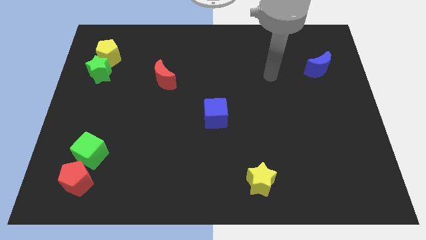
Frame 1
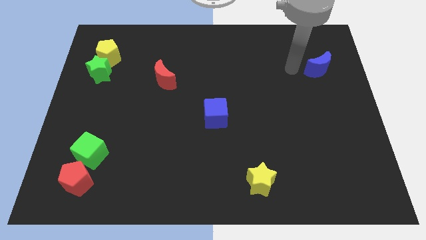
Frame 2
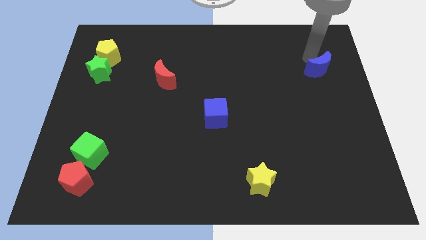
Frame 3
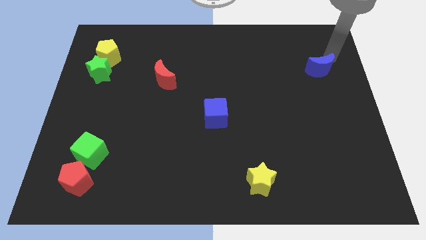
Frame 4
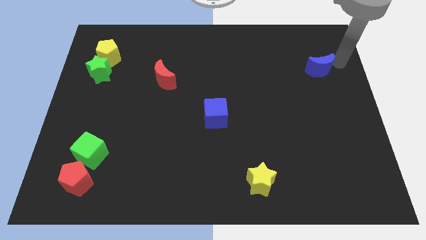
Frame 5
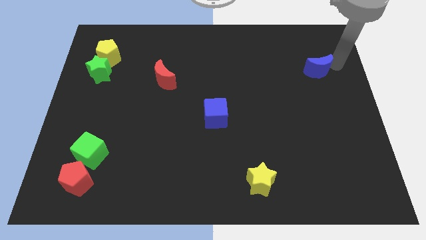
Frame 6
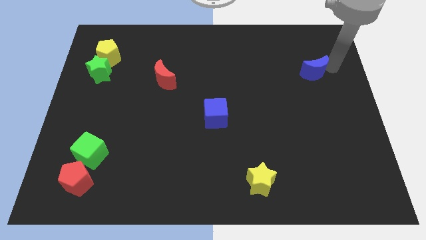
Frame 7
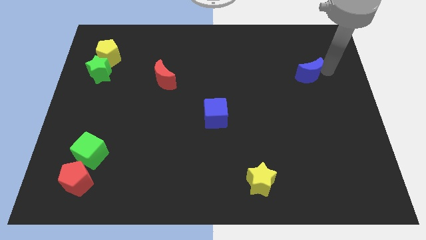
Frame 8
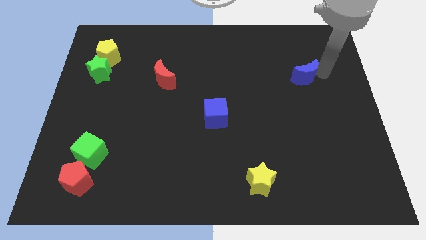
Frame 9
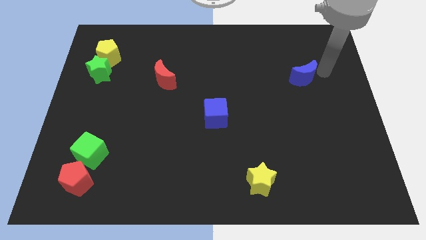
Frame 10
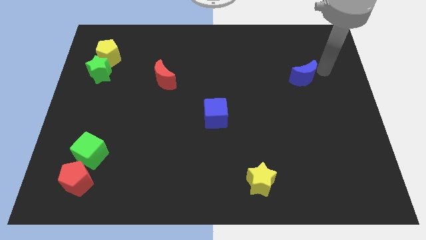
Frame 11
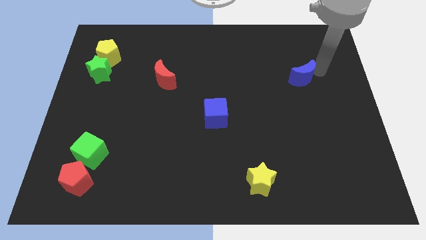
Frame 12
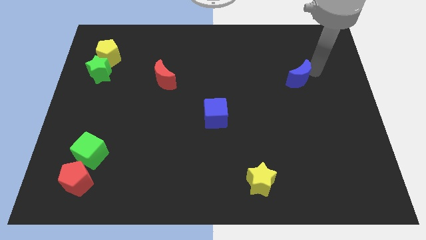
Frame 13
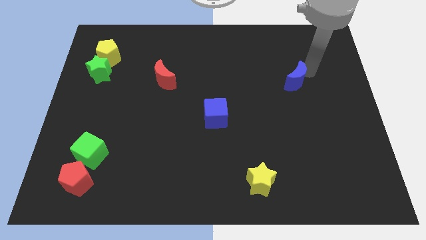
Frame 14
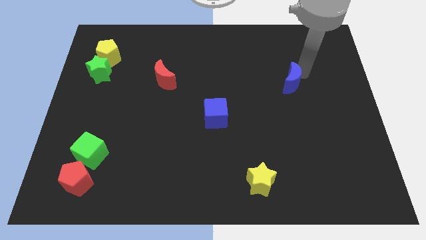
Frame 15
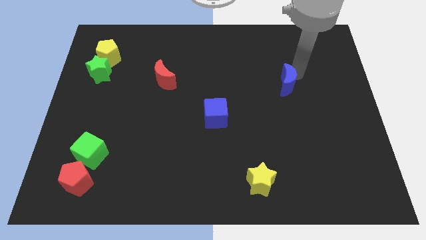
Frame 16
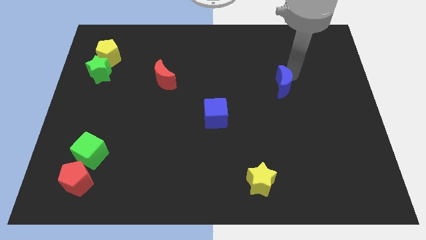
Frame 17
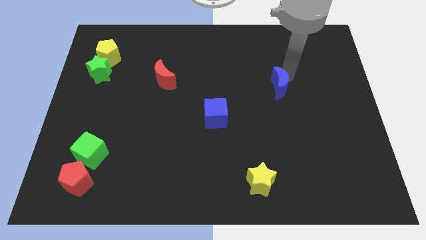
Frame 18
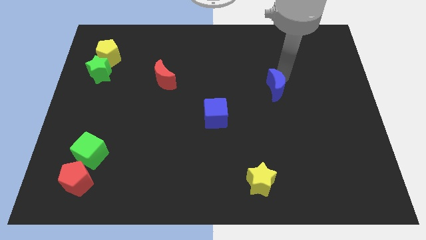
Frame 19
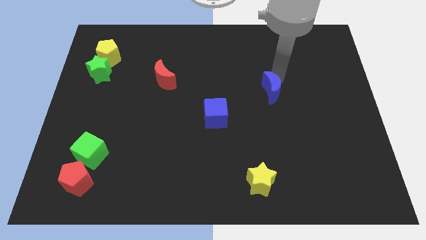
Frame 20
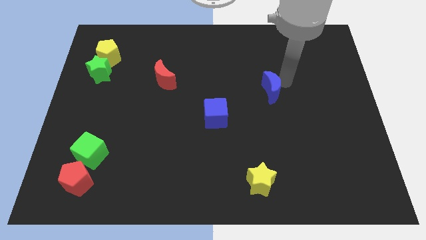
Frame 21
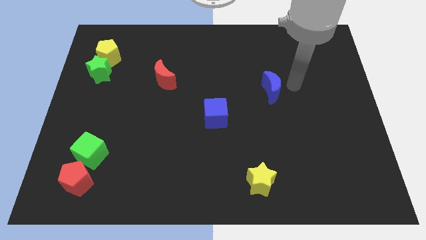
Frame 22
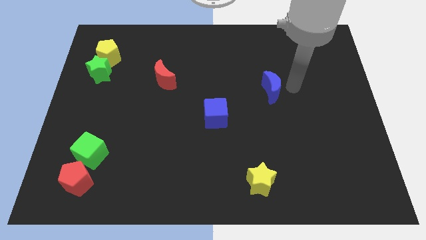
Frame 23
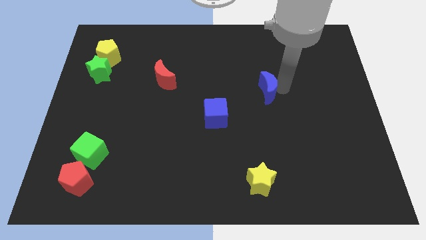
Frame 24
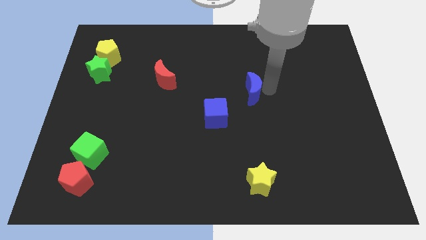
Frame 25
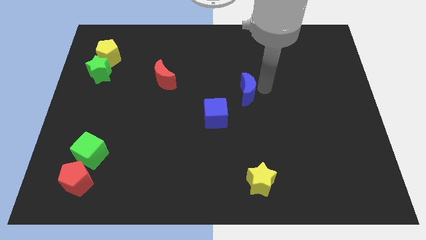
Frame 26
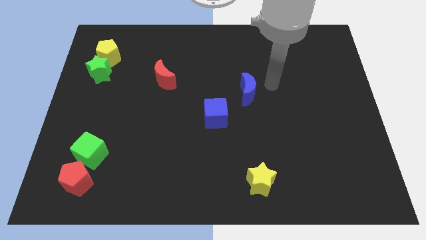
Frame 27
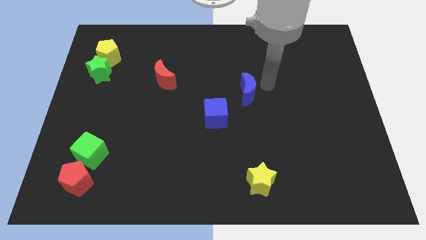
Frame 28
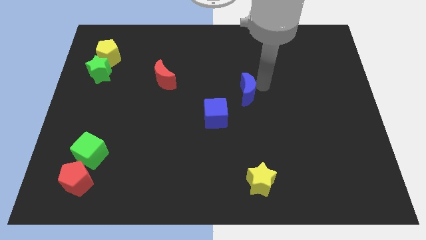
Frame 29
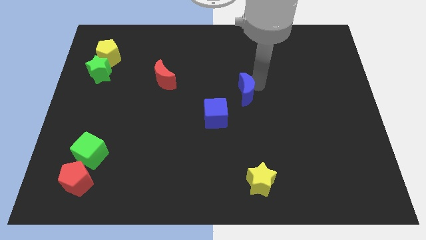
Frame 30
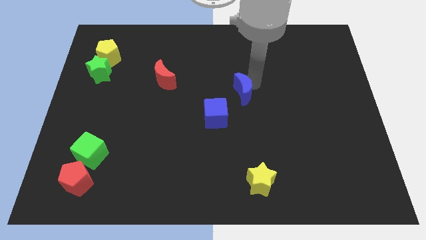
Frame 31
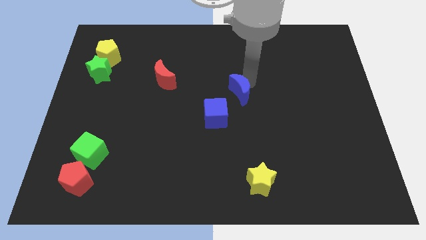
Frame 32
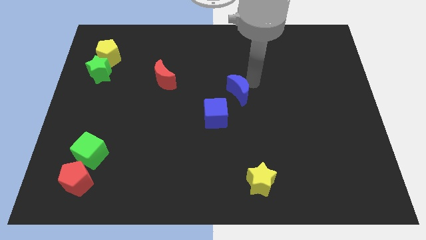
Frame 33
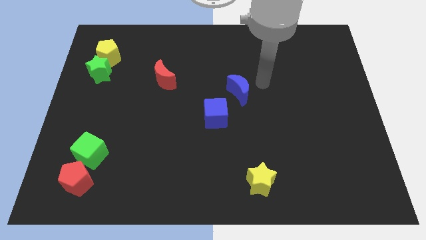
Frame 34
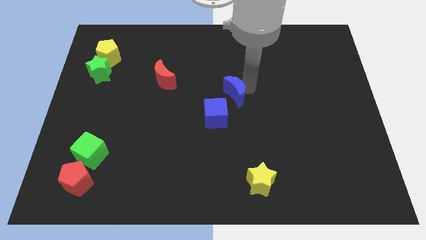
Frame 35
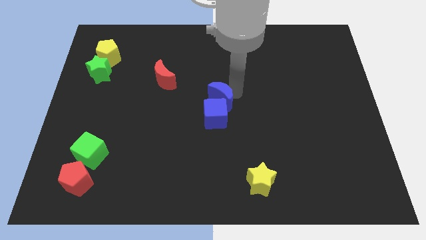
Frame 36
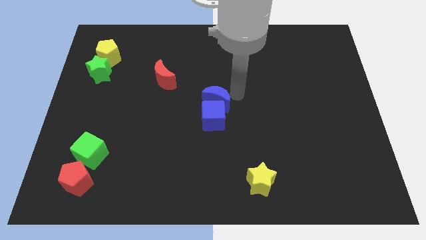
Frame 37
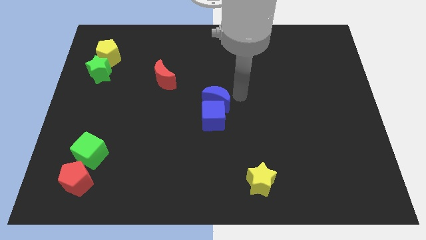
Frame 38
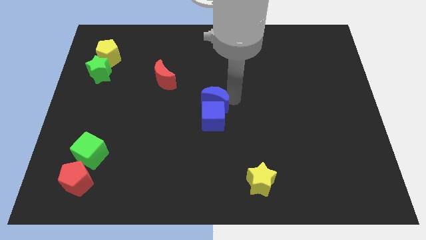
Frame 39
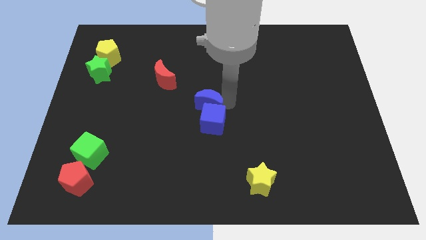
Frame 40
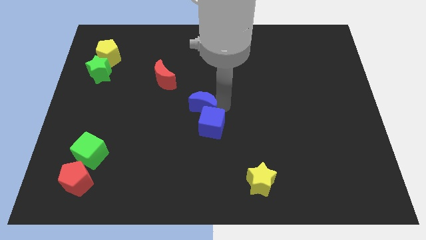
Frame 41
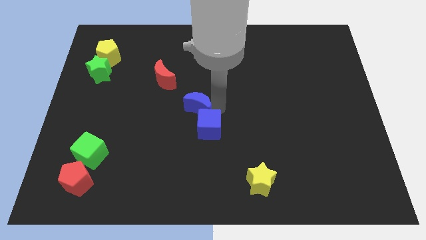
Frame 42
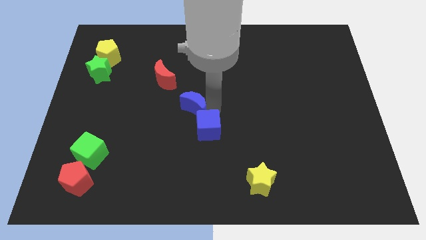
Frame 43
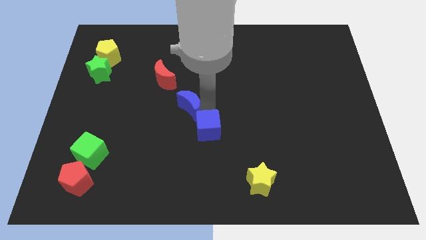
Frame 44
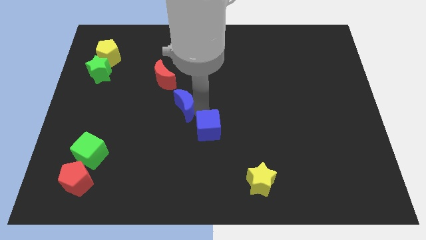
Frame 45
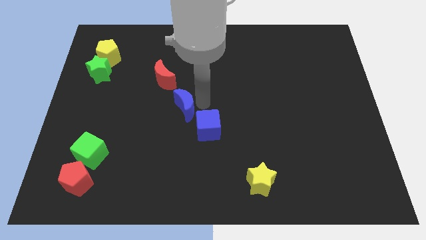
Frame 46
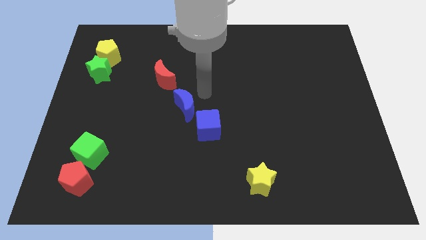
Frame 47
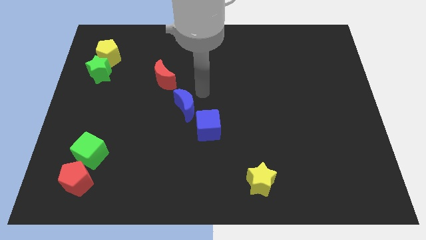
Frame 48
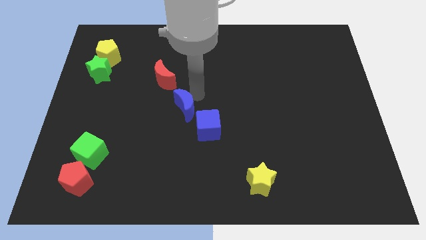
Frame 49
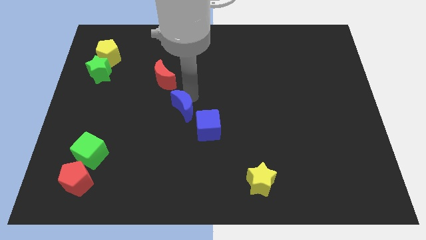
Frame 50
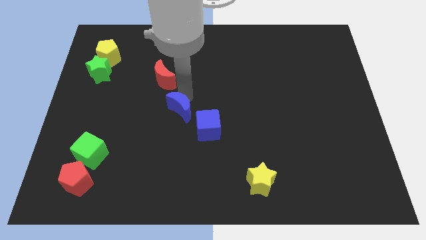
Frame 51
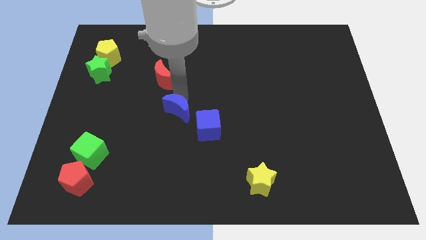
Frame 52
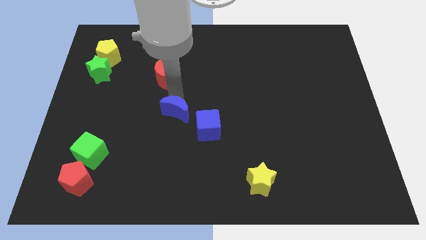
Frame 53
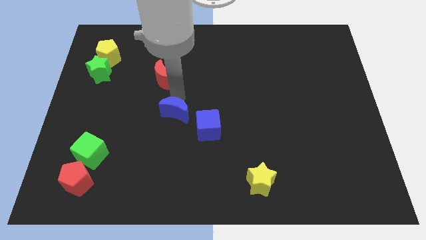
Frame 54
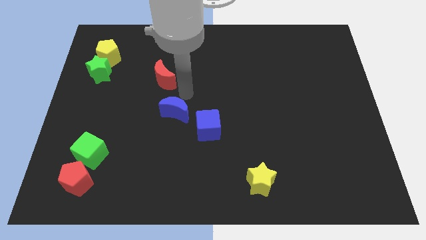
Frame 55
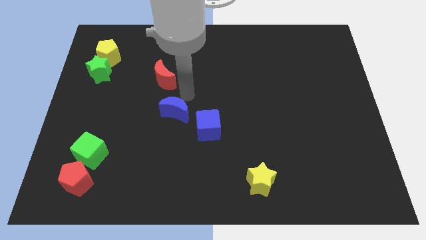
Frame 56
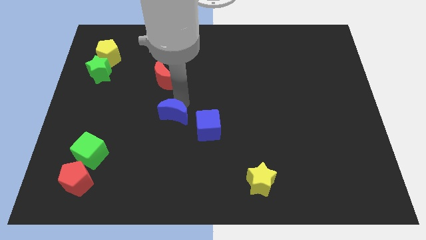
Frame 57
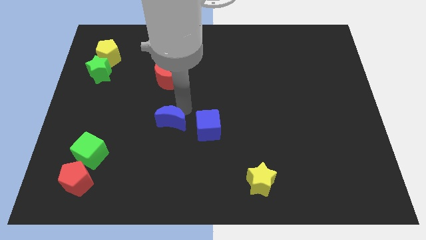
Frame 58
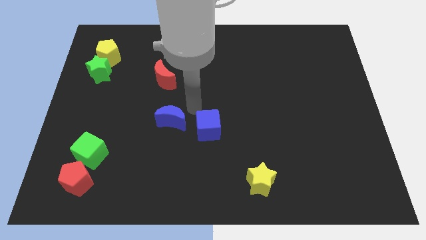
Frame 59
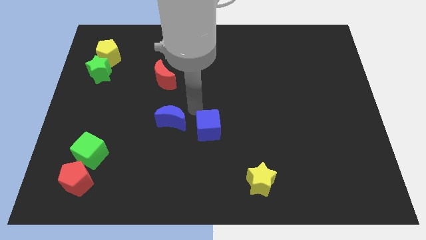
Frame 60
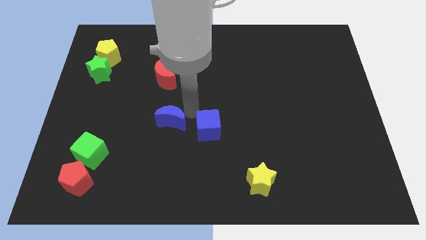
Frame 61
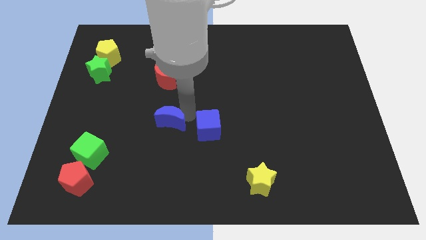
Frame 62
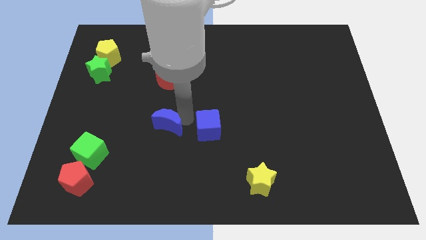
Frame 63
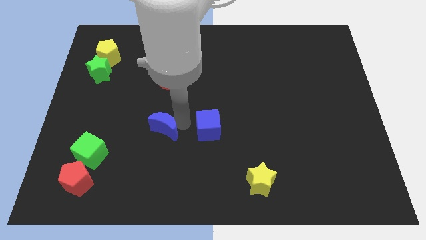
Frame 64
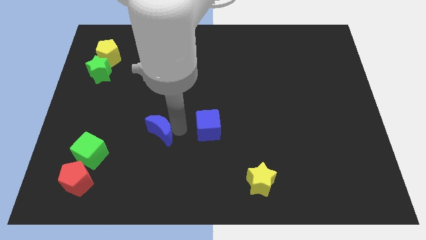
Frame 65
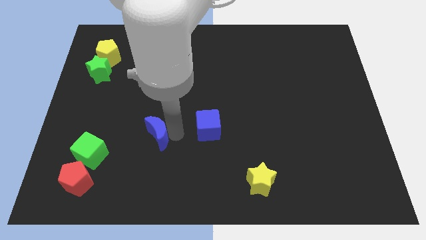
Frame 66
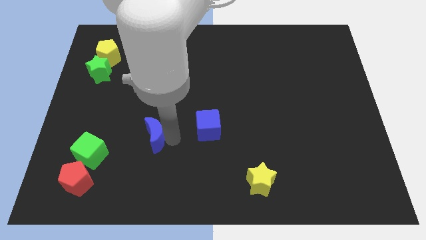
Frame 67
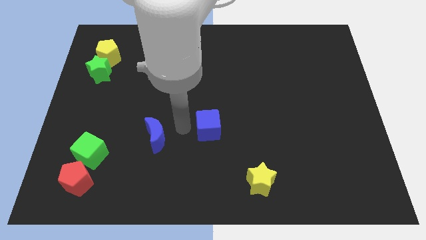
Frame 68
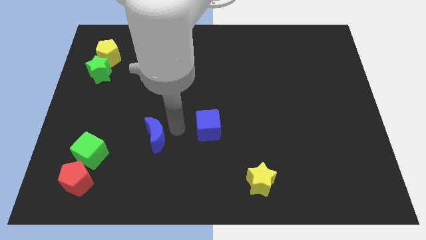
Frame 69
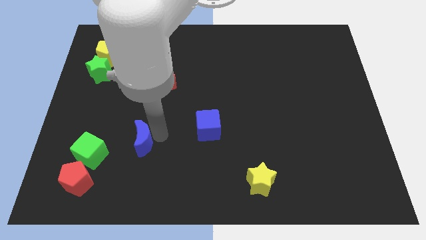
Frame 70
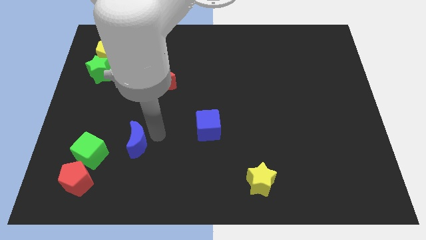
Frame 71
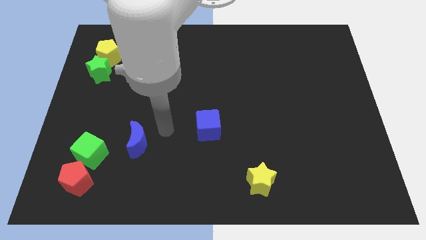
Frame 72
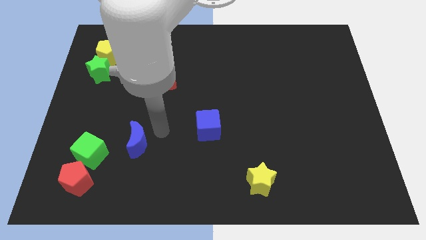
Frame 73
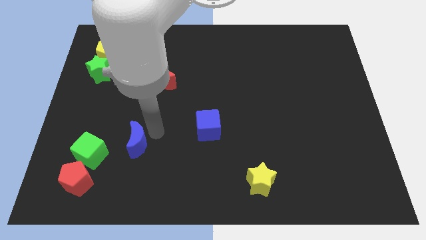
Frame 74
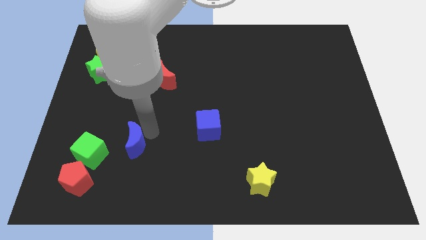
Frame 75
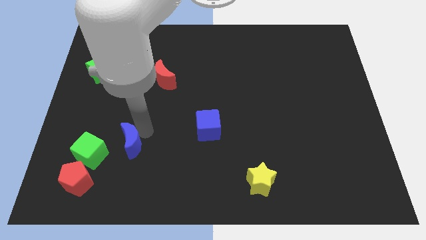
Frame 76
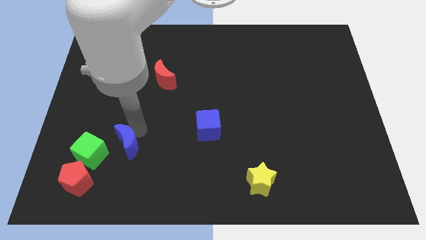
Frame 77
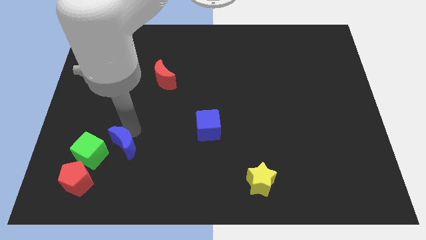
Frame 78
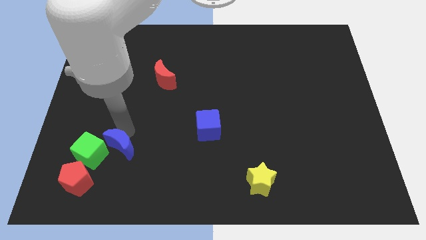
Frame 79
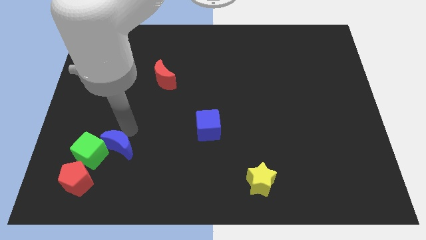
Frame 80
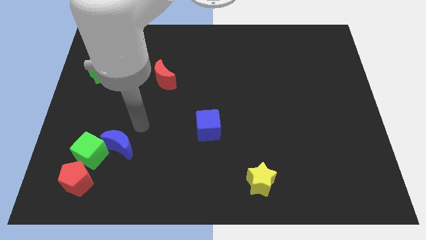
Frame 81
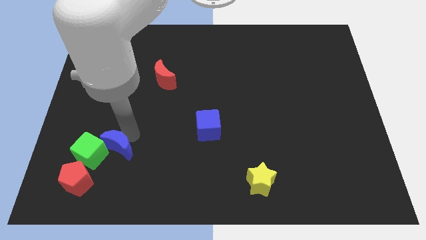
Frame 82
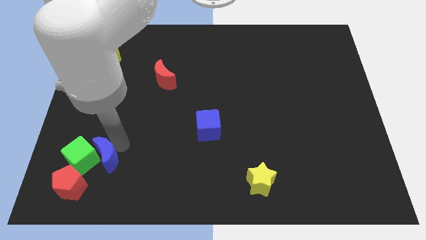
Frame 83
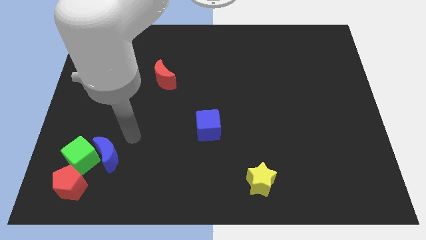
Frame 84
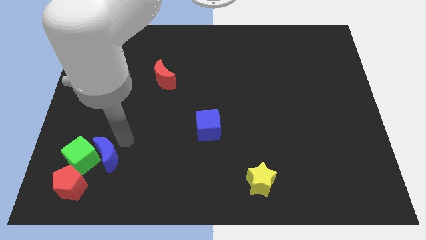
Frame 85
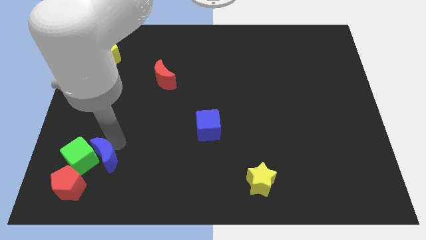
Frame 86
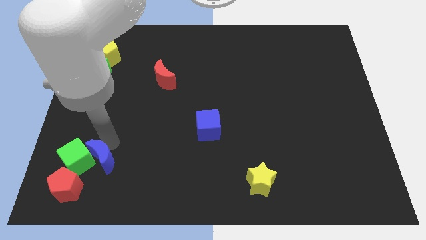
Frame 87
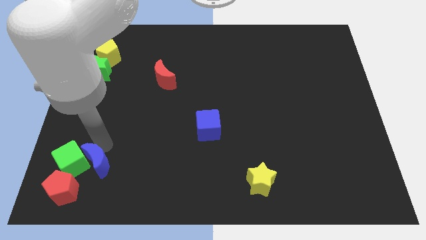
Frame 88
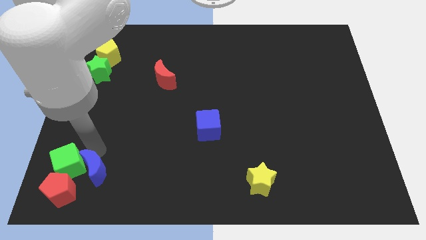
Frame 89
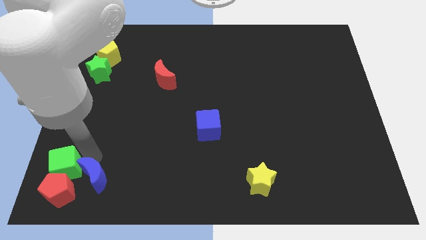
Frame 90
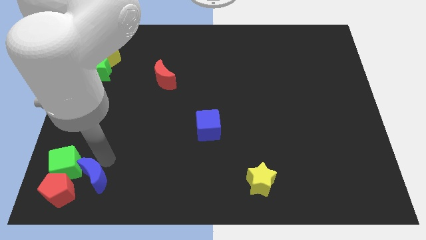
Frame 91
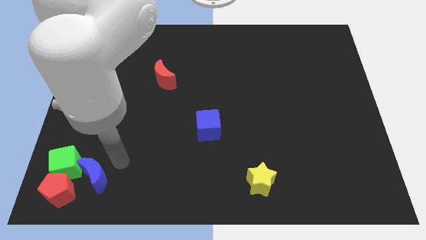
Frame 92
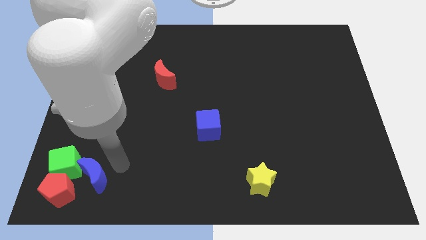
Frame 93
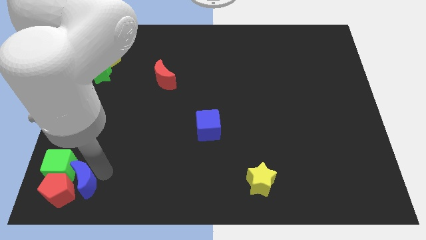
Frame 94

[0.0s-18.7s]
slide the blue moon next to the red pentagon
